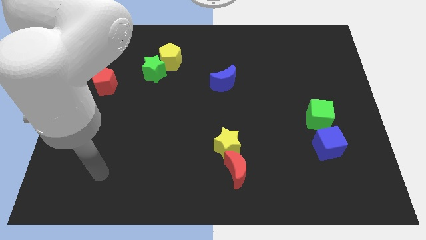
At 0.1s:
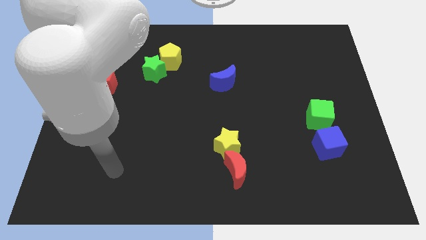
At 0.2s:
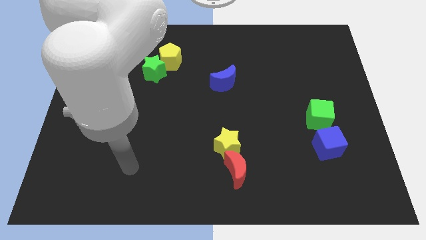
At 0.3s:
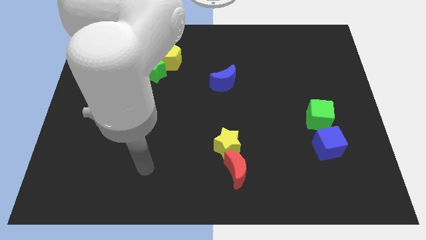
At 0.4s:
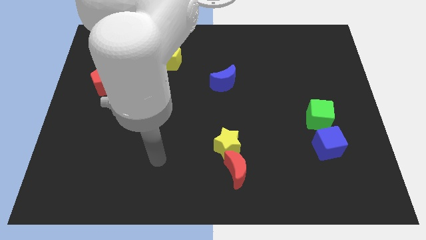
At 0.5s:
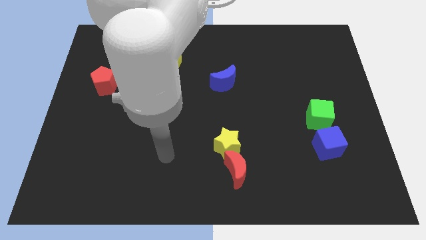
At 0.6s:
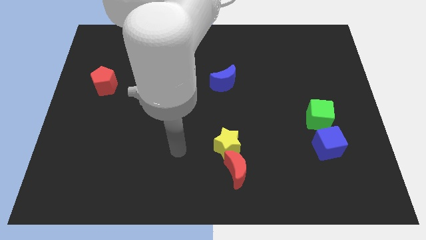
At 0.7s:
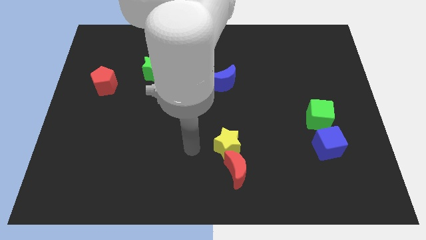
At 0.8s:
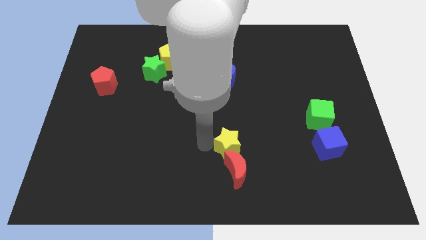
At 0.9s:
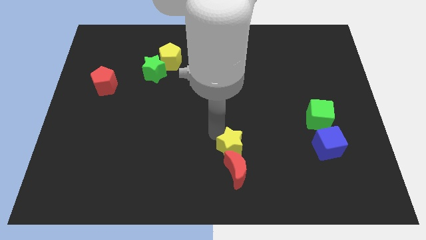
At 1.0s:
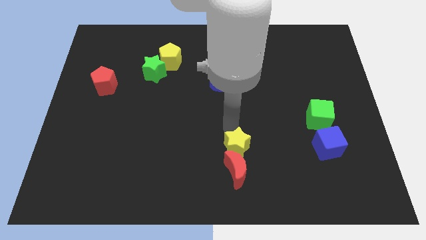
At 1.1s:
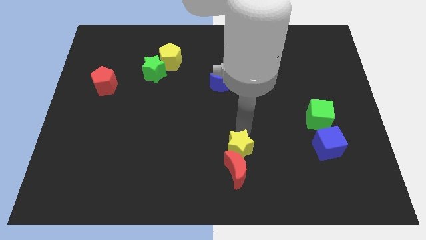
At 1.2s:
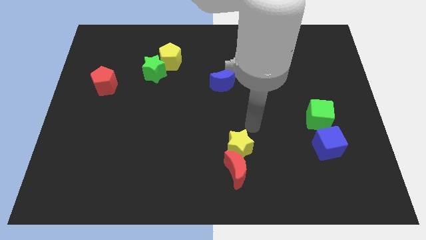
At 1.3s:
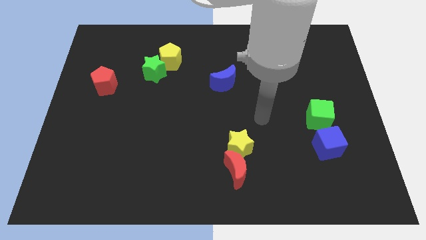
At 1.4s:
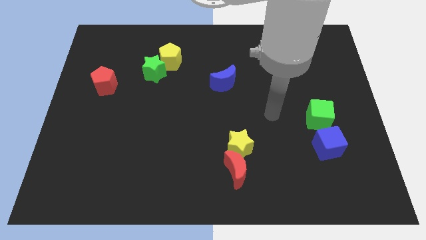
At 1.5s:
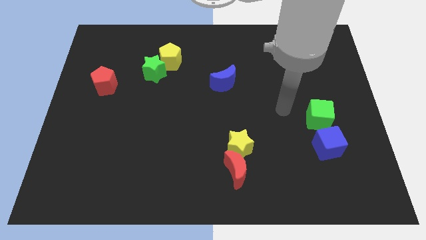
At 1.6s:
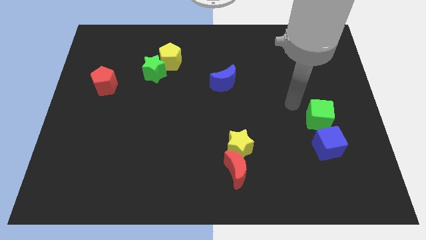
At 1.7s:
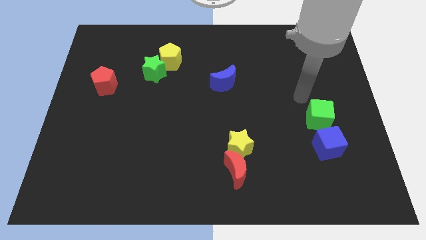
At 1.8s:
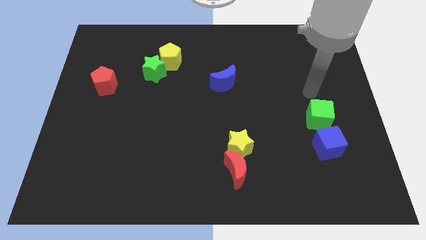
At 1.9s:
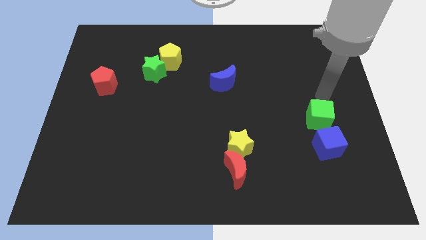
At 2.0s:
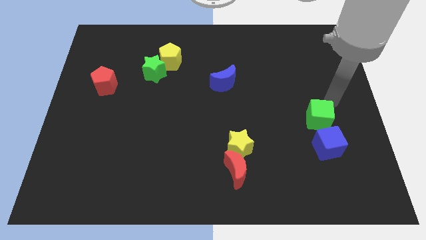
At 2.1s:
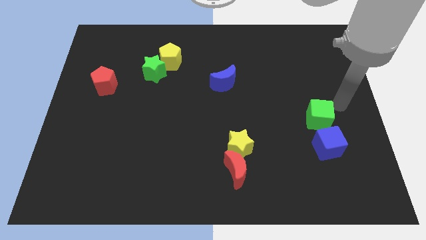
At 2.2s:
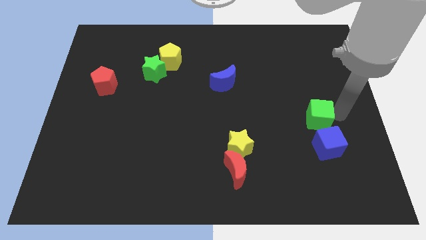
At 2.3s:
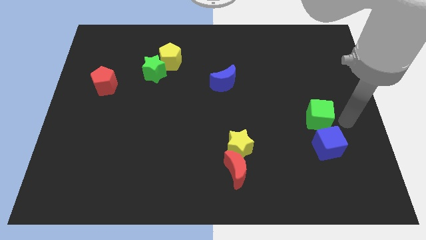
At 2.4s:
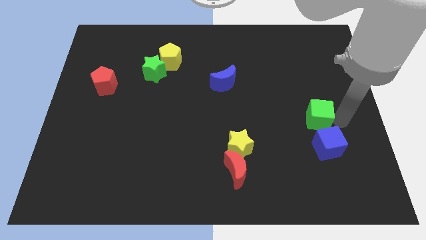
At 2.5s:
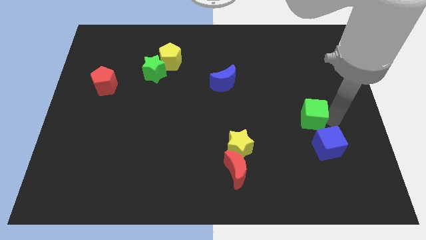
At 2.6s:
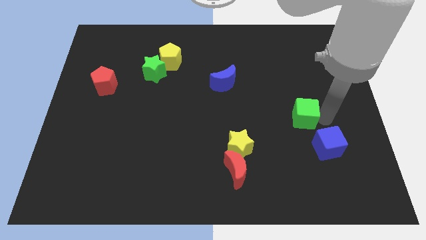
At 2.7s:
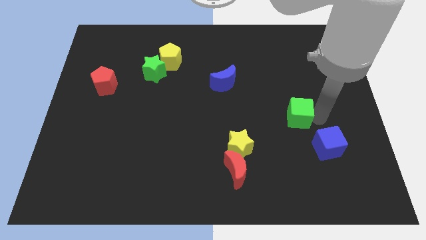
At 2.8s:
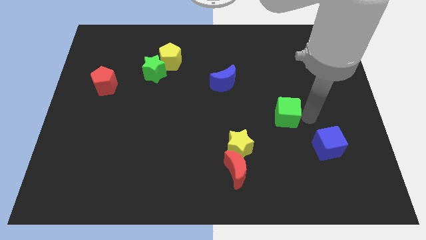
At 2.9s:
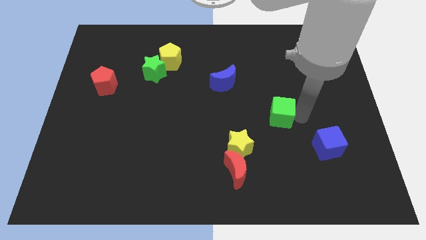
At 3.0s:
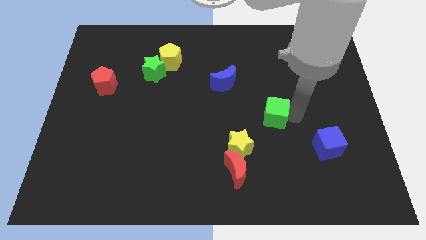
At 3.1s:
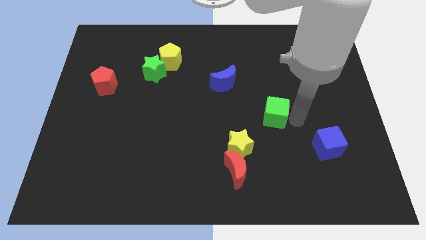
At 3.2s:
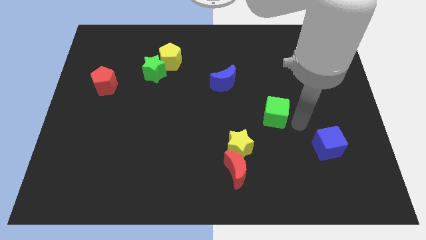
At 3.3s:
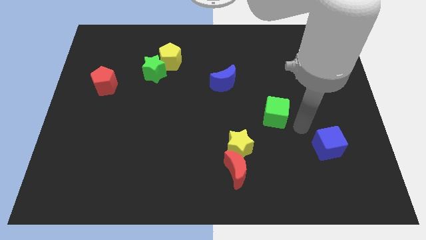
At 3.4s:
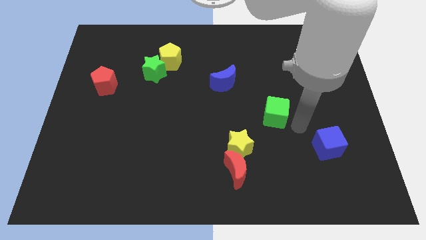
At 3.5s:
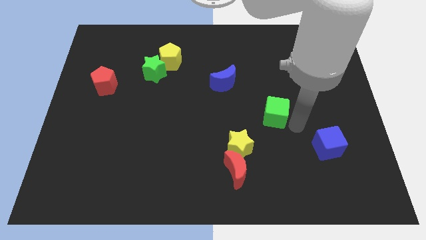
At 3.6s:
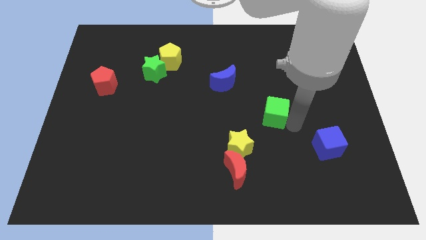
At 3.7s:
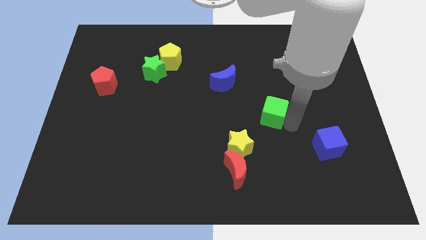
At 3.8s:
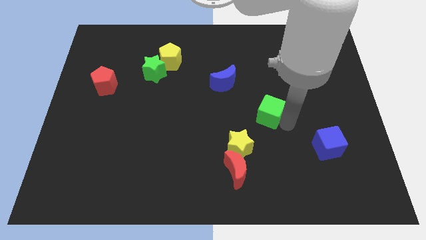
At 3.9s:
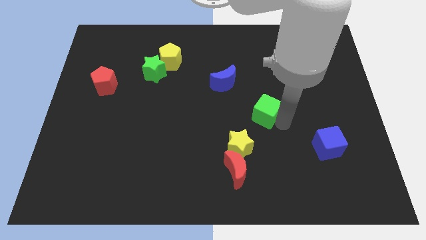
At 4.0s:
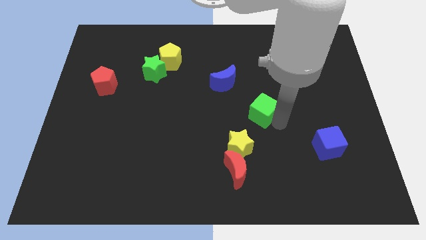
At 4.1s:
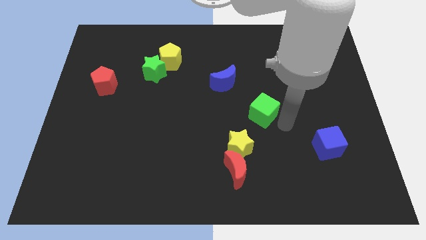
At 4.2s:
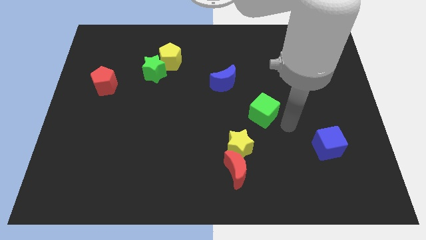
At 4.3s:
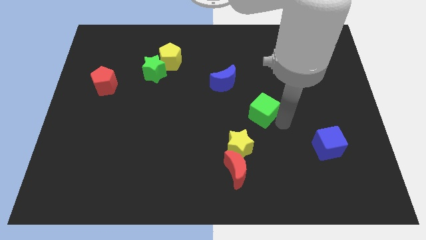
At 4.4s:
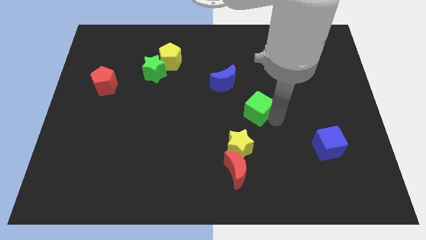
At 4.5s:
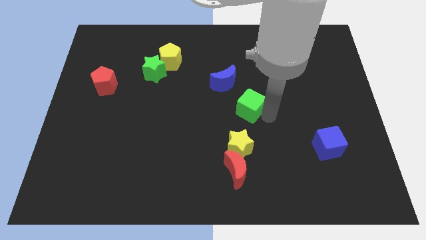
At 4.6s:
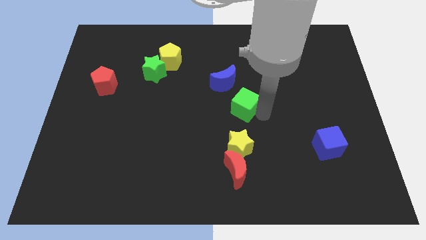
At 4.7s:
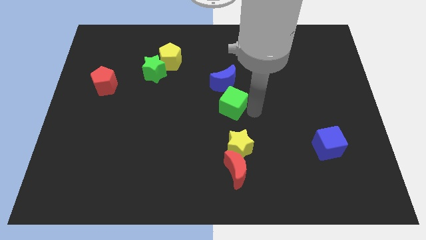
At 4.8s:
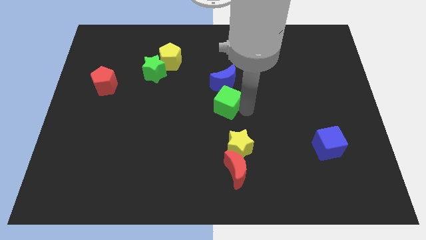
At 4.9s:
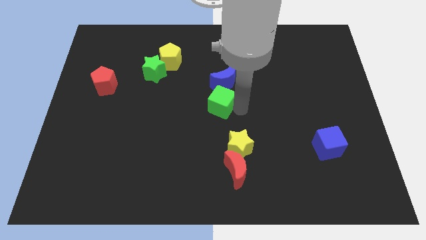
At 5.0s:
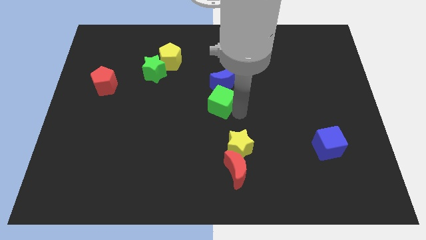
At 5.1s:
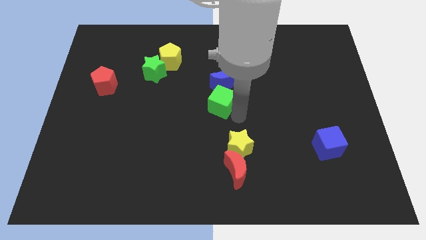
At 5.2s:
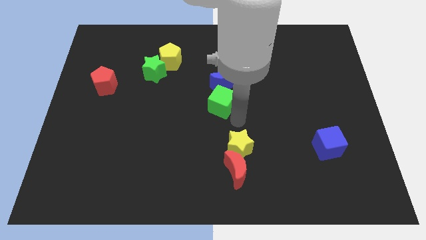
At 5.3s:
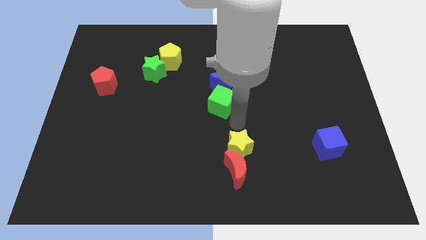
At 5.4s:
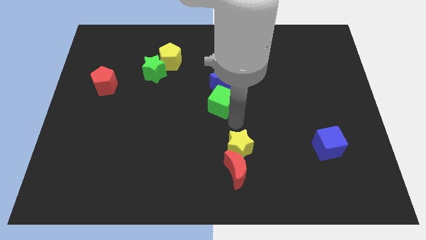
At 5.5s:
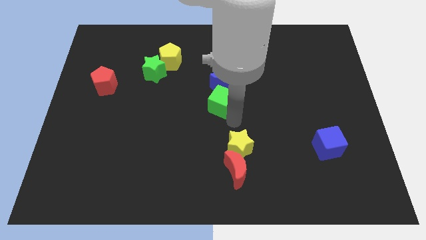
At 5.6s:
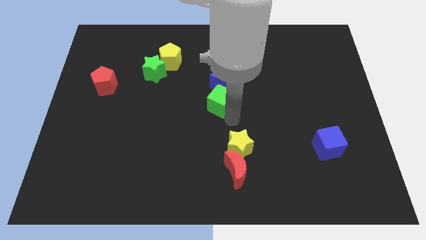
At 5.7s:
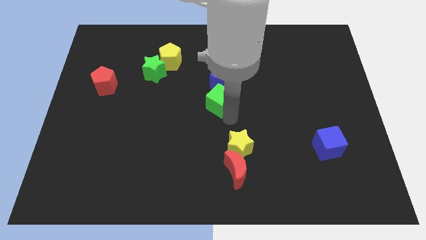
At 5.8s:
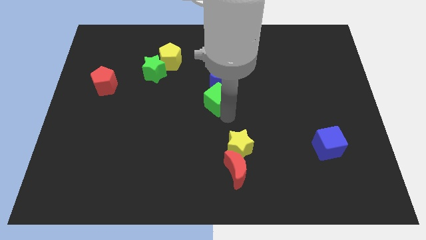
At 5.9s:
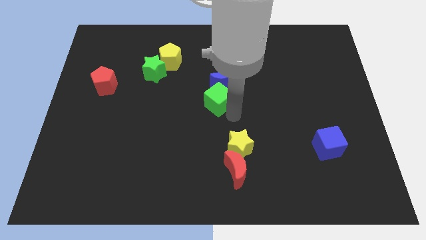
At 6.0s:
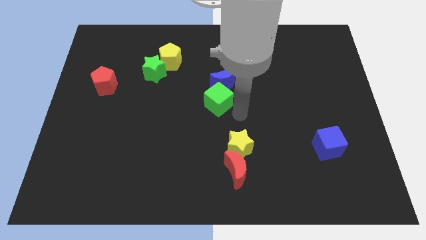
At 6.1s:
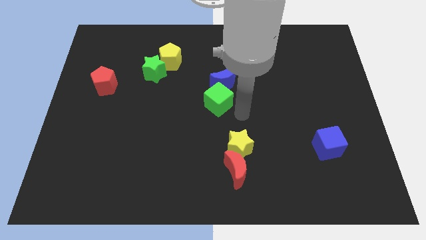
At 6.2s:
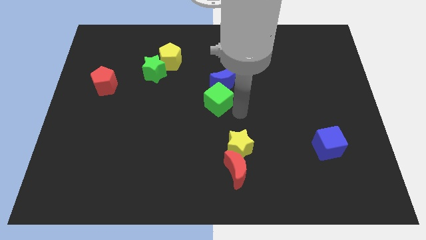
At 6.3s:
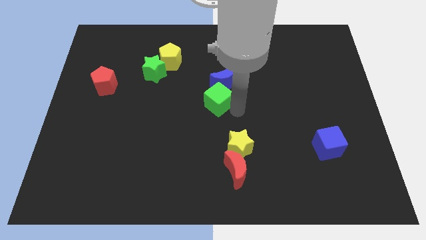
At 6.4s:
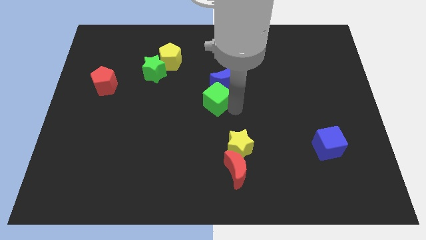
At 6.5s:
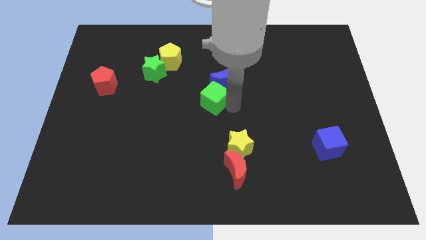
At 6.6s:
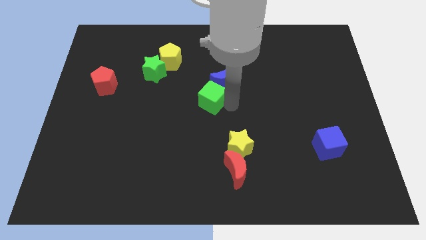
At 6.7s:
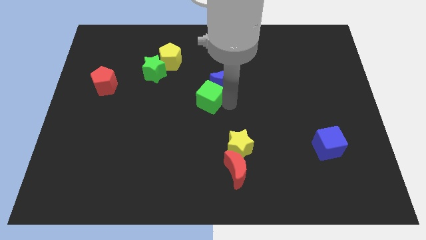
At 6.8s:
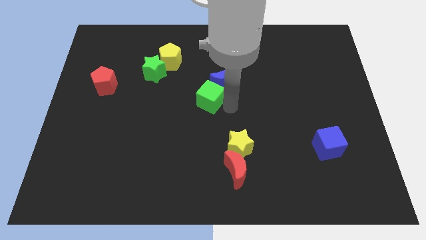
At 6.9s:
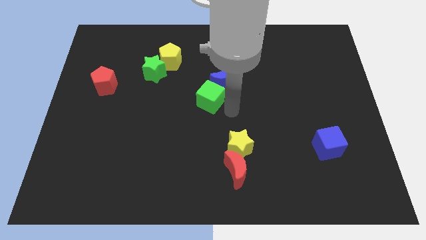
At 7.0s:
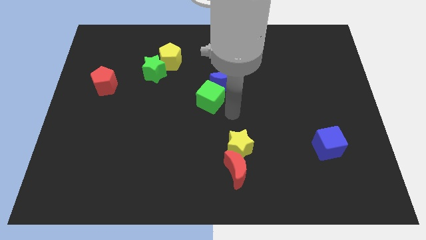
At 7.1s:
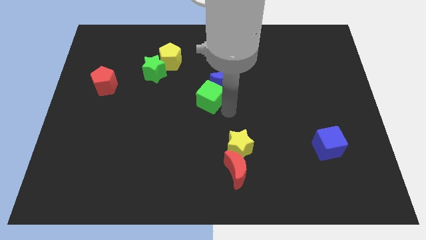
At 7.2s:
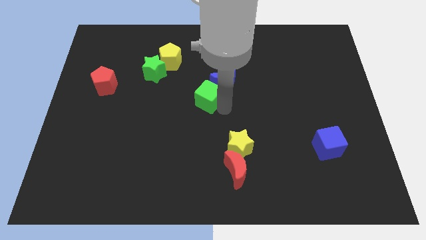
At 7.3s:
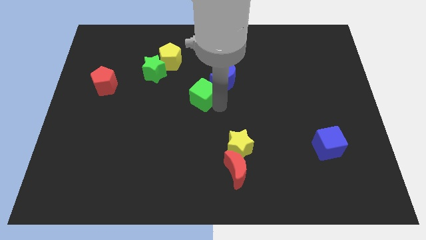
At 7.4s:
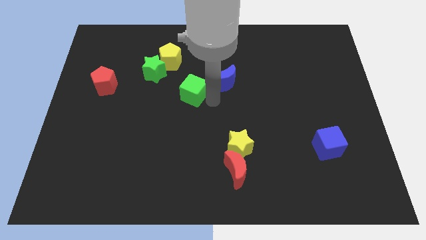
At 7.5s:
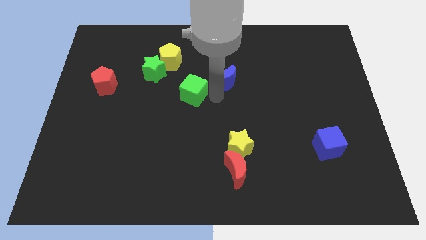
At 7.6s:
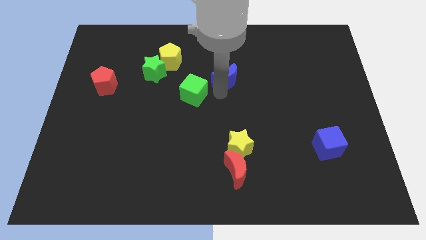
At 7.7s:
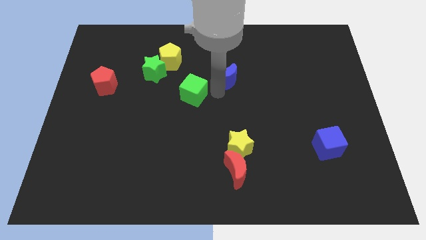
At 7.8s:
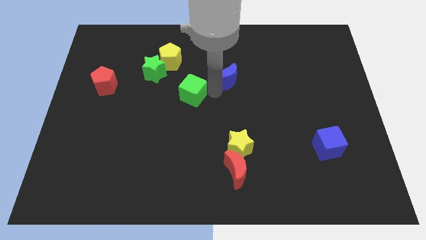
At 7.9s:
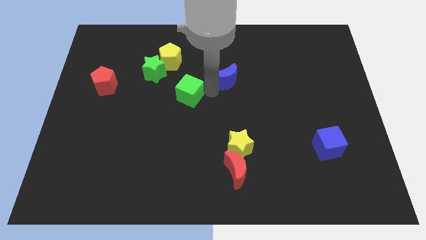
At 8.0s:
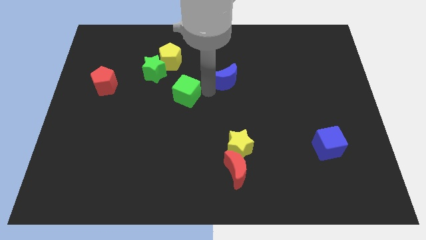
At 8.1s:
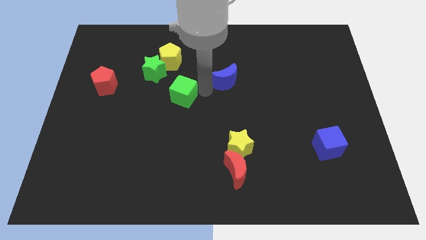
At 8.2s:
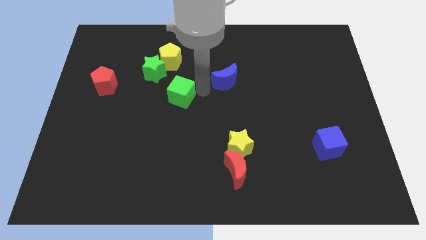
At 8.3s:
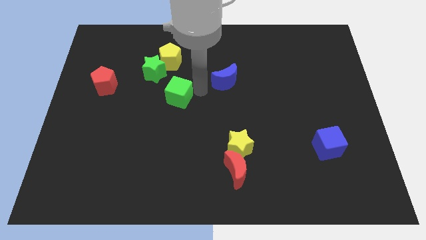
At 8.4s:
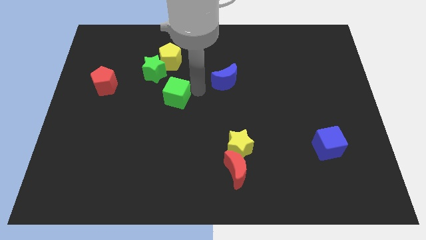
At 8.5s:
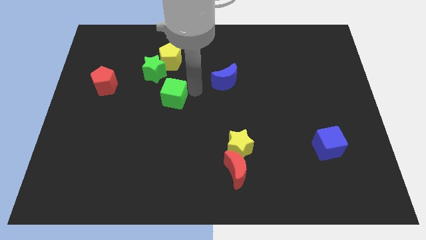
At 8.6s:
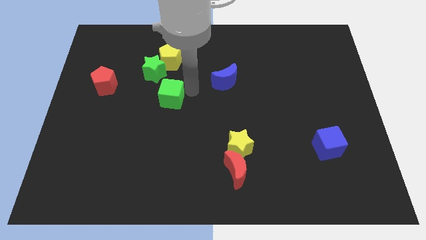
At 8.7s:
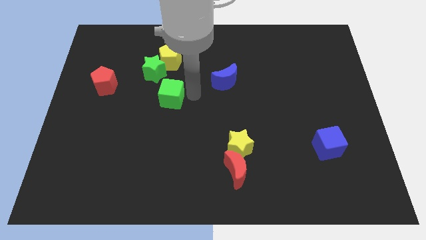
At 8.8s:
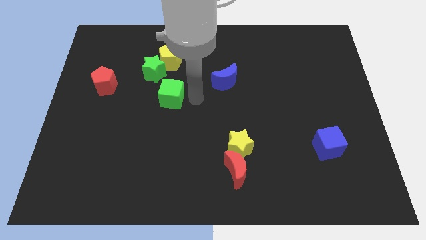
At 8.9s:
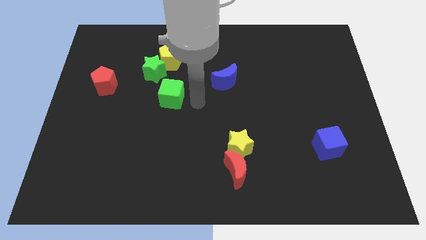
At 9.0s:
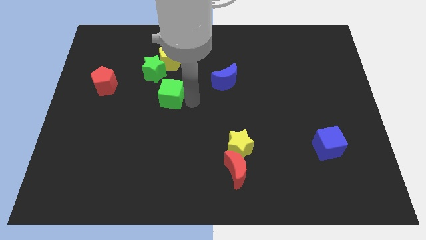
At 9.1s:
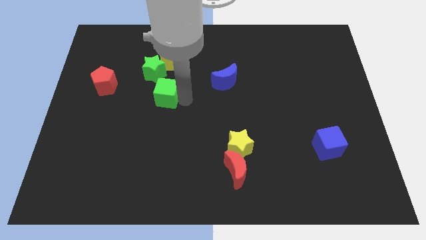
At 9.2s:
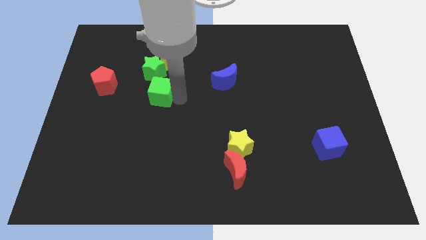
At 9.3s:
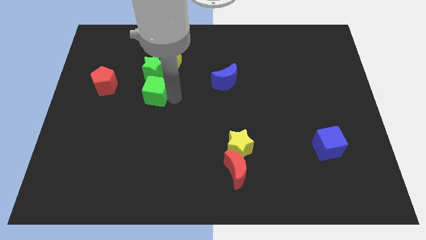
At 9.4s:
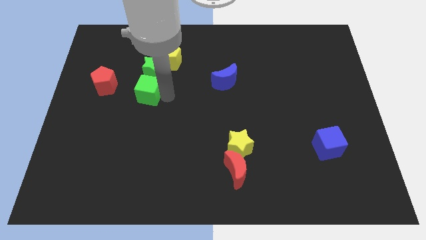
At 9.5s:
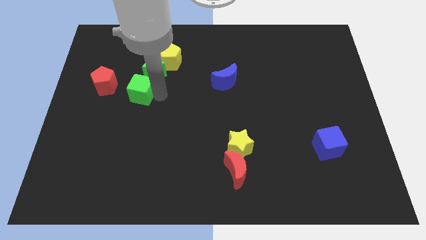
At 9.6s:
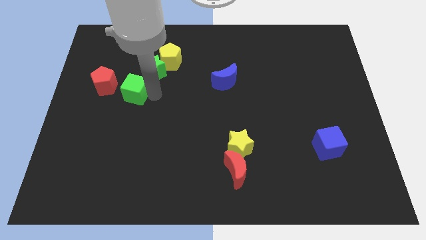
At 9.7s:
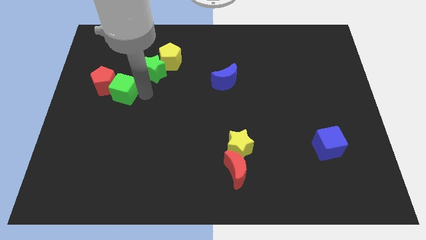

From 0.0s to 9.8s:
put the green cube to the red pentagon
